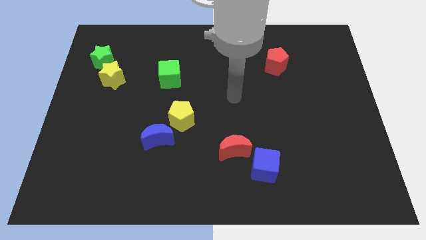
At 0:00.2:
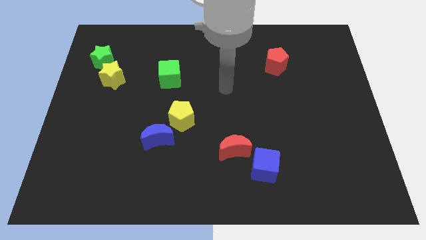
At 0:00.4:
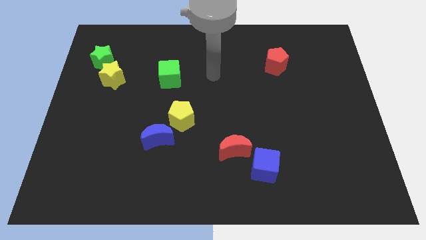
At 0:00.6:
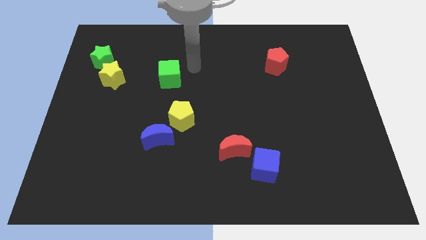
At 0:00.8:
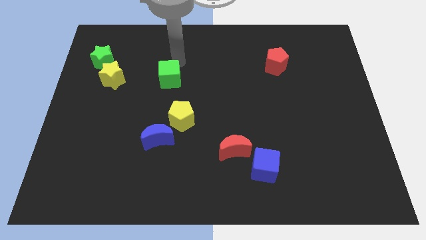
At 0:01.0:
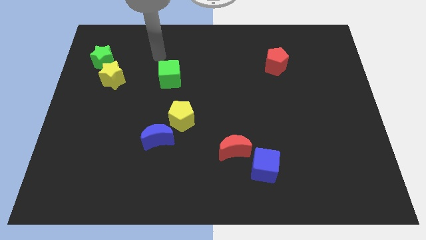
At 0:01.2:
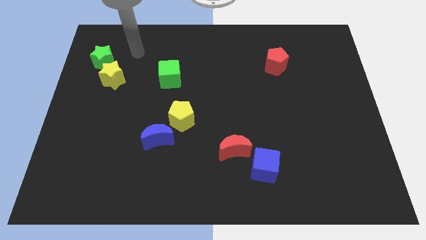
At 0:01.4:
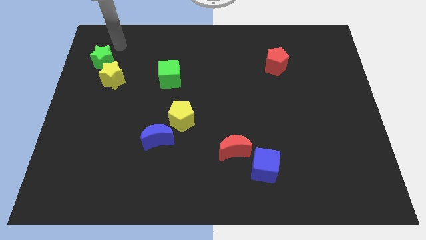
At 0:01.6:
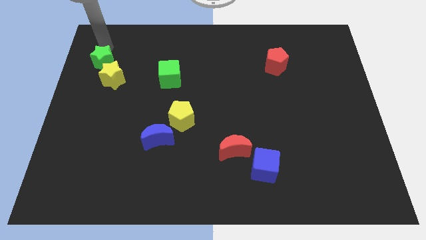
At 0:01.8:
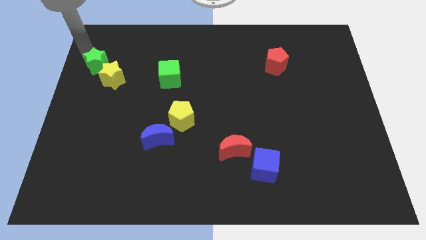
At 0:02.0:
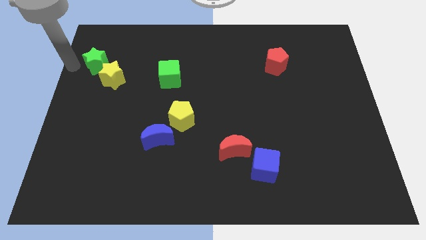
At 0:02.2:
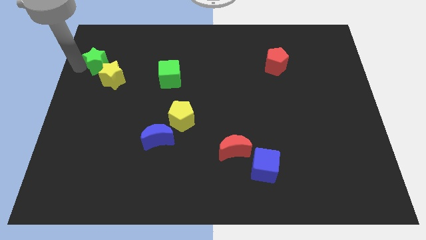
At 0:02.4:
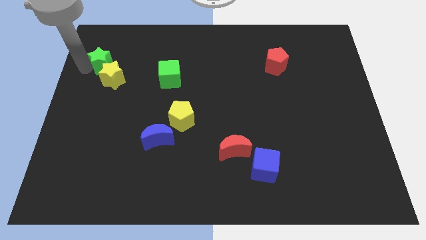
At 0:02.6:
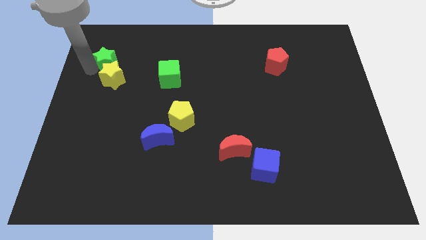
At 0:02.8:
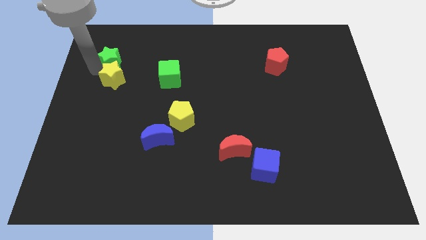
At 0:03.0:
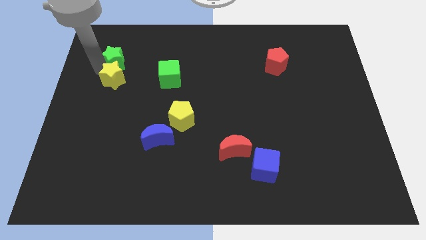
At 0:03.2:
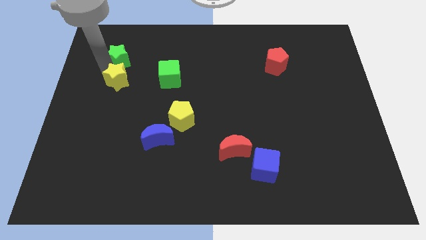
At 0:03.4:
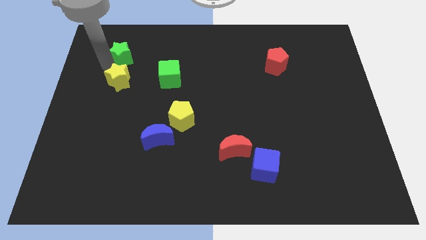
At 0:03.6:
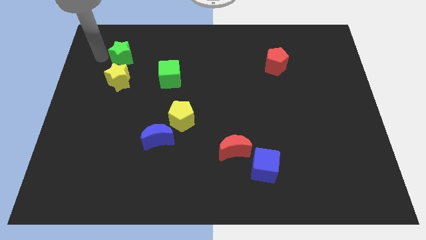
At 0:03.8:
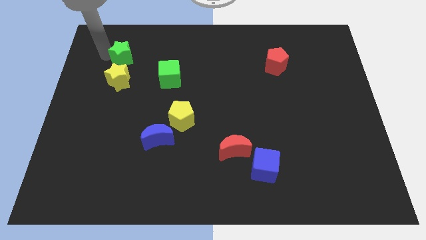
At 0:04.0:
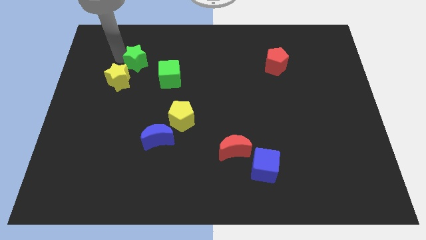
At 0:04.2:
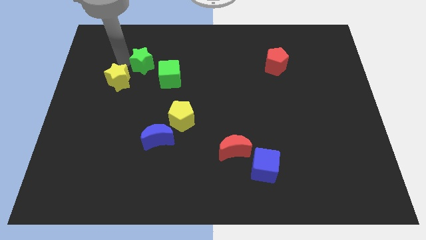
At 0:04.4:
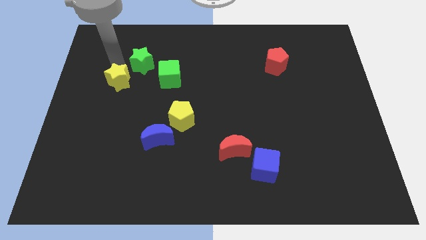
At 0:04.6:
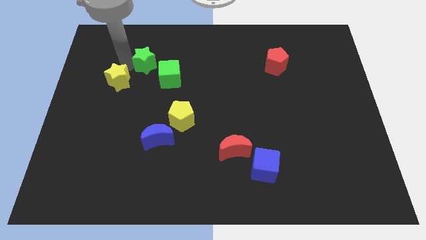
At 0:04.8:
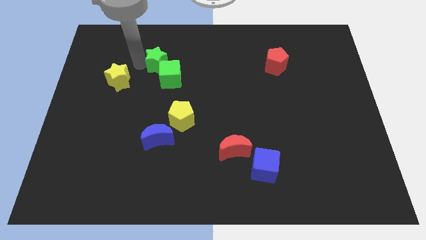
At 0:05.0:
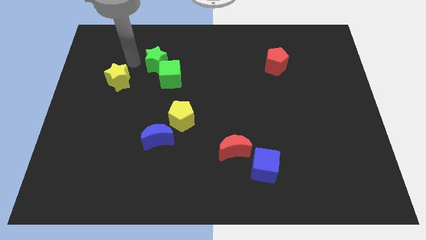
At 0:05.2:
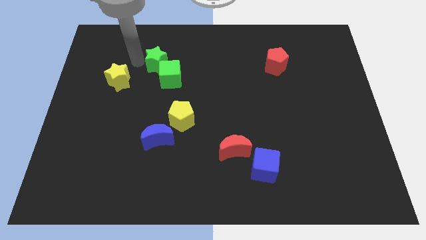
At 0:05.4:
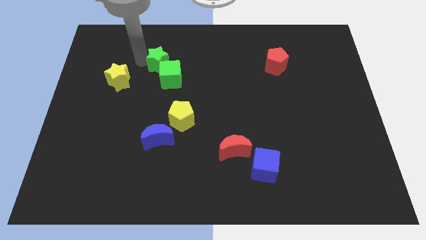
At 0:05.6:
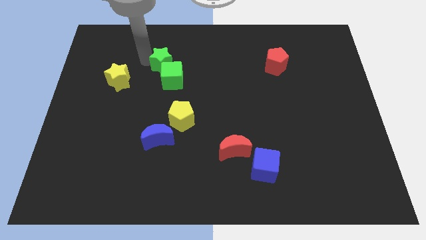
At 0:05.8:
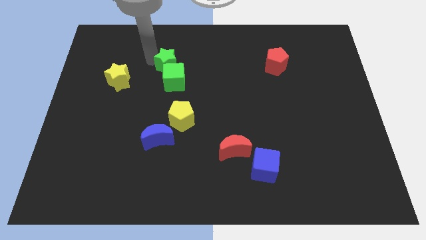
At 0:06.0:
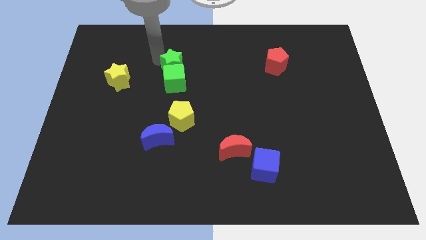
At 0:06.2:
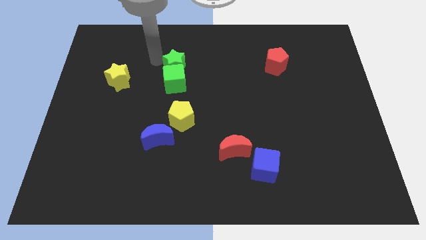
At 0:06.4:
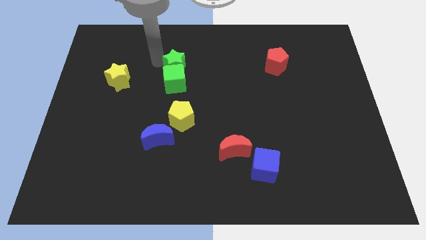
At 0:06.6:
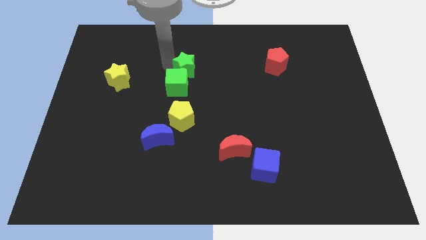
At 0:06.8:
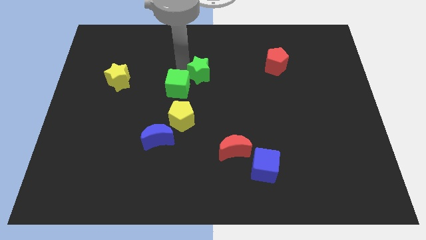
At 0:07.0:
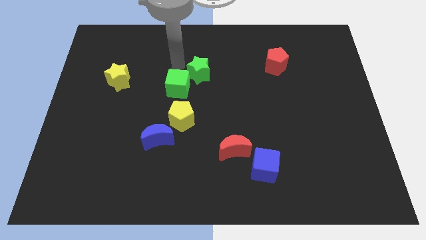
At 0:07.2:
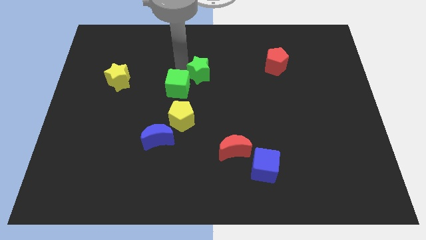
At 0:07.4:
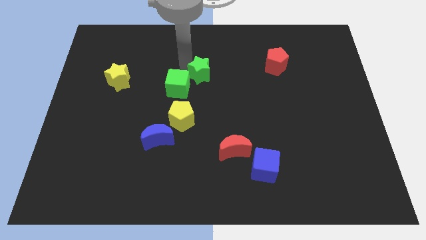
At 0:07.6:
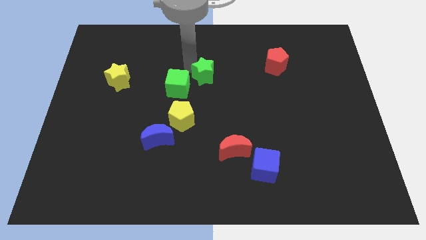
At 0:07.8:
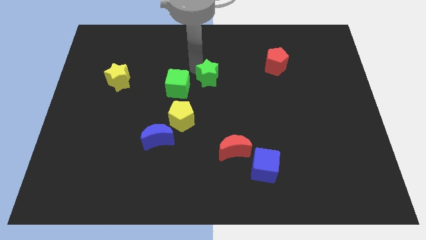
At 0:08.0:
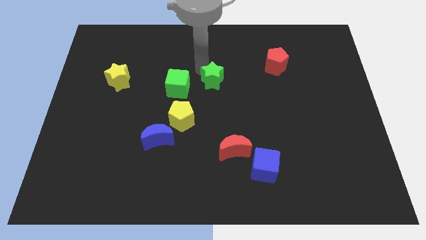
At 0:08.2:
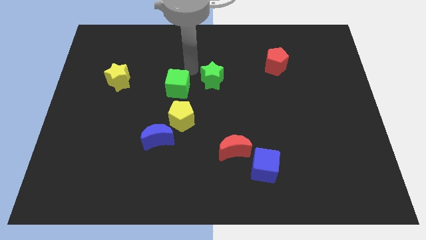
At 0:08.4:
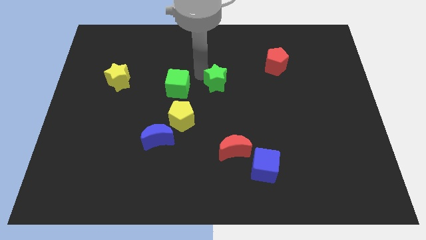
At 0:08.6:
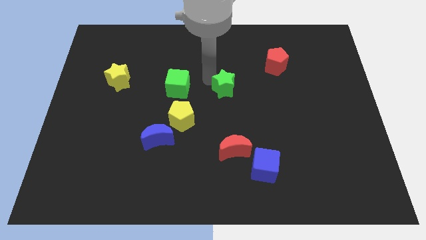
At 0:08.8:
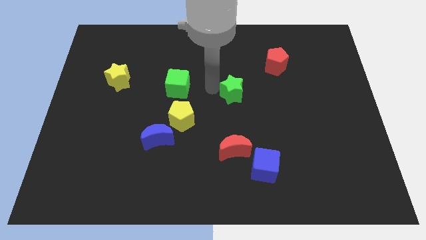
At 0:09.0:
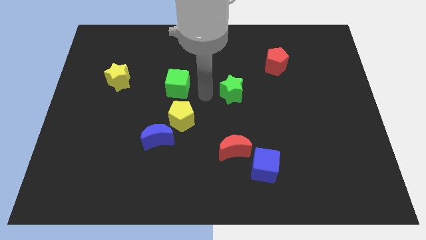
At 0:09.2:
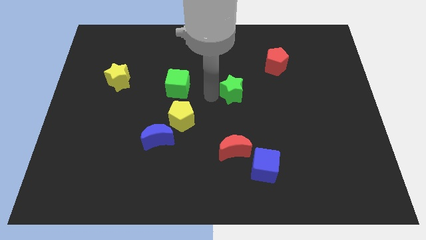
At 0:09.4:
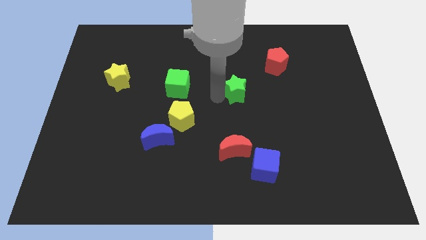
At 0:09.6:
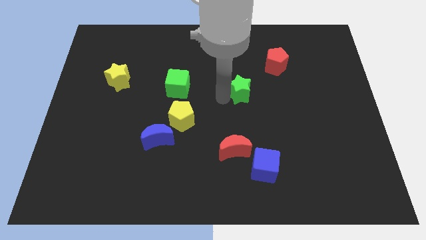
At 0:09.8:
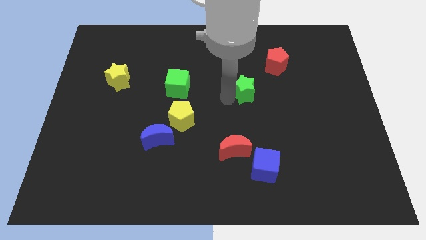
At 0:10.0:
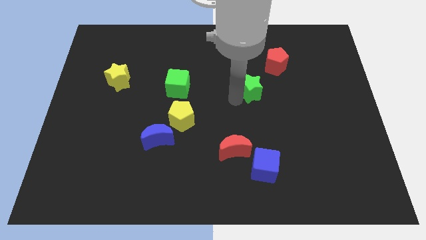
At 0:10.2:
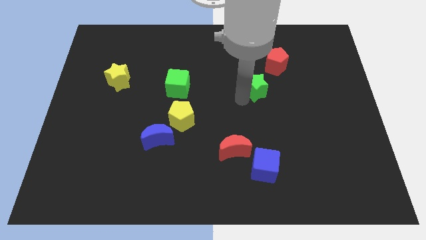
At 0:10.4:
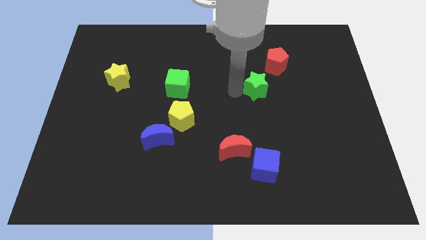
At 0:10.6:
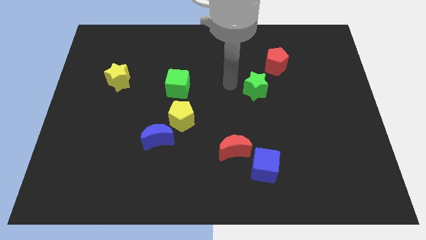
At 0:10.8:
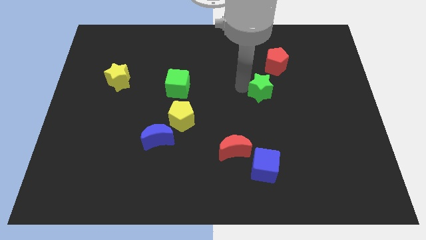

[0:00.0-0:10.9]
push the green star to the bottom side of the red pentagon

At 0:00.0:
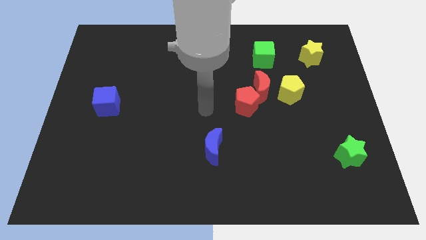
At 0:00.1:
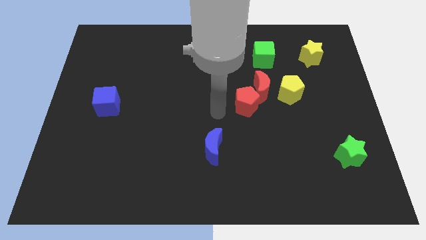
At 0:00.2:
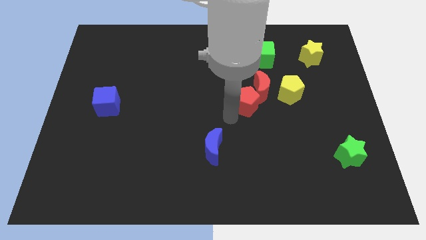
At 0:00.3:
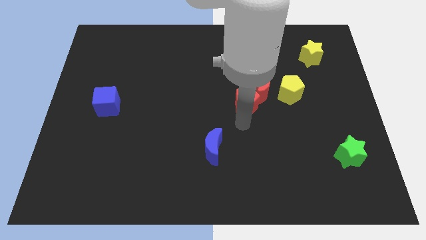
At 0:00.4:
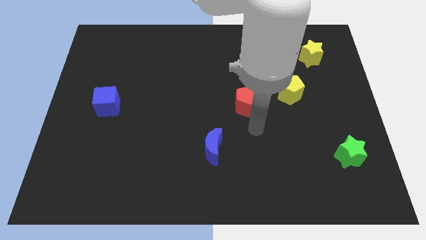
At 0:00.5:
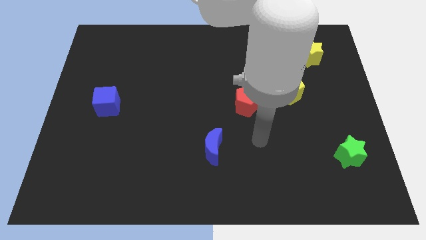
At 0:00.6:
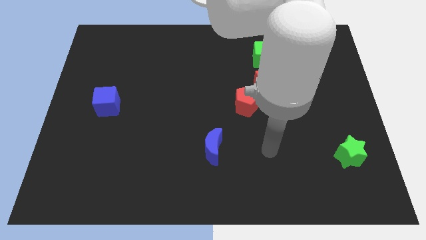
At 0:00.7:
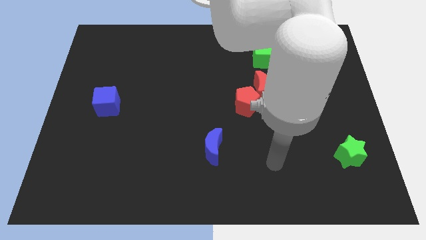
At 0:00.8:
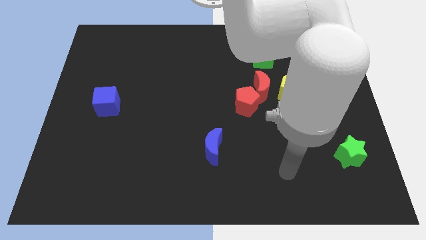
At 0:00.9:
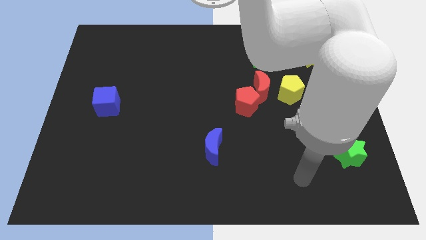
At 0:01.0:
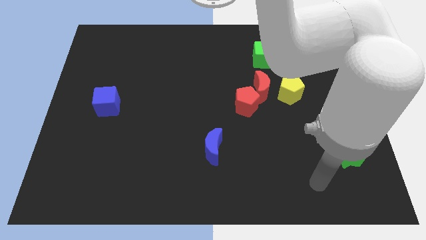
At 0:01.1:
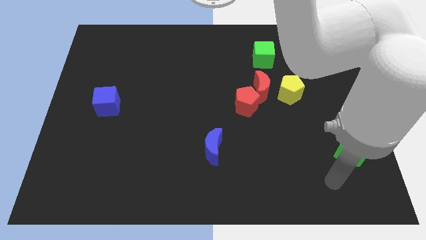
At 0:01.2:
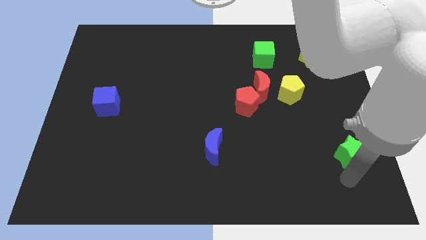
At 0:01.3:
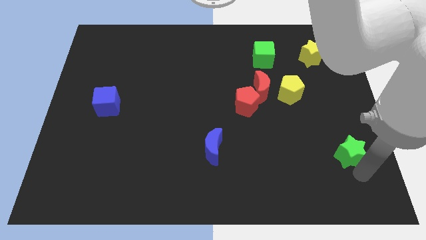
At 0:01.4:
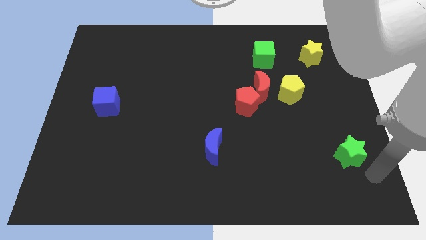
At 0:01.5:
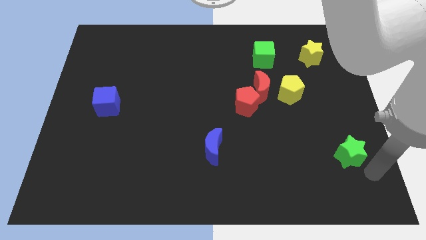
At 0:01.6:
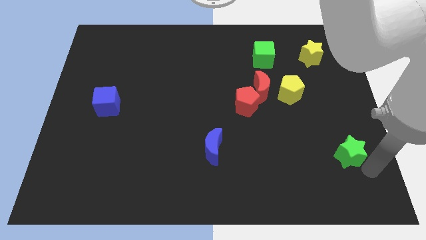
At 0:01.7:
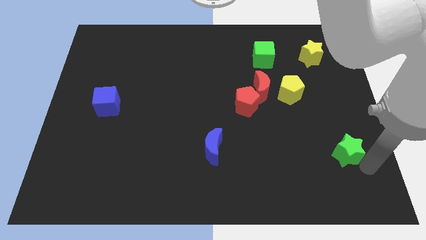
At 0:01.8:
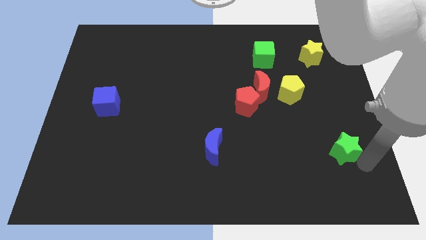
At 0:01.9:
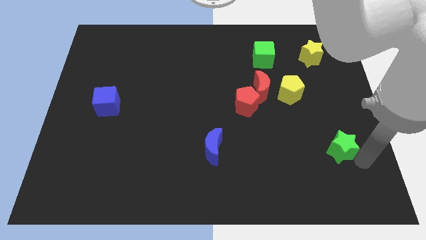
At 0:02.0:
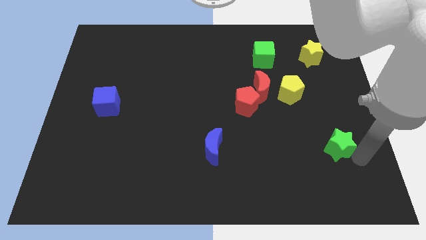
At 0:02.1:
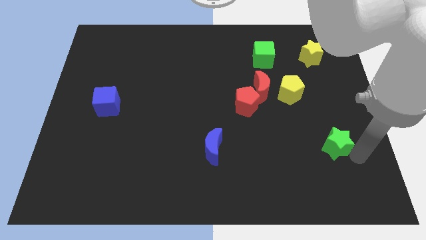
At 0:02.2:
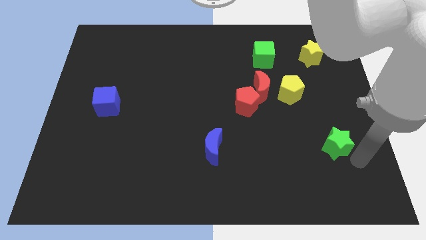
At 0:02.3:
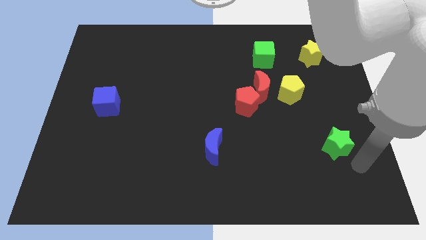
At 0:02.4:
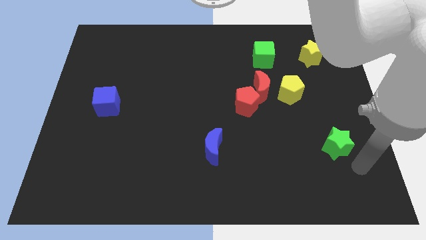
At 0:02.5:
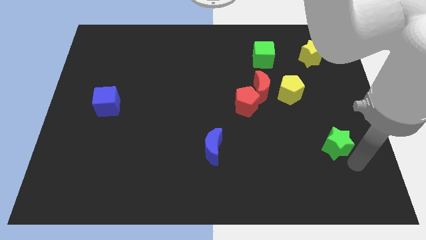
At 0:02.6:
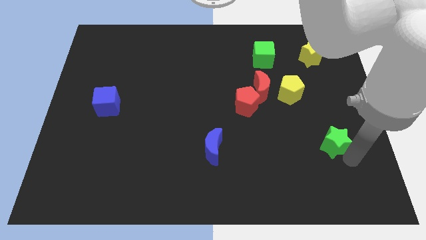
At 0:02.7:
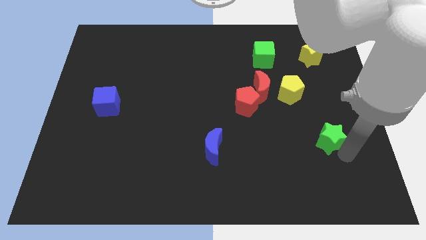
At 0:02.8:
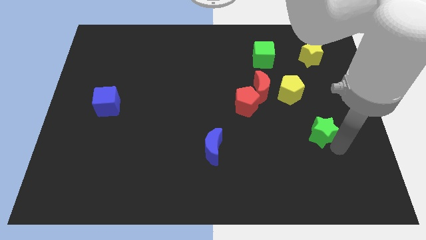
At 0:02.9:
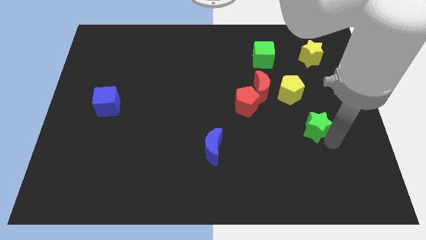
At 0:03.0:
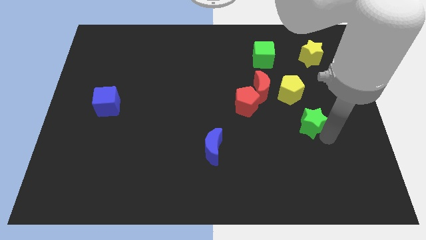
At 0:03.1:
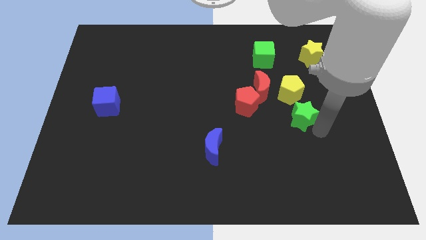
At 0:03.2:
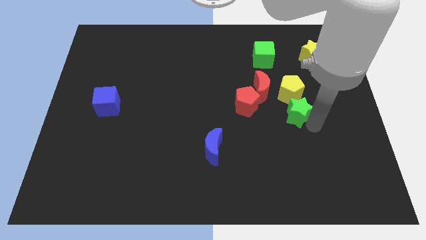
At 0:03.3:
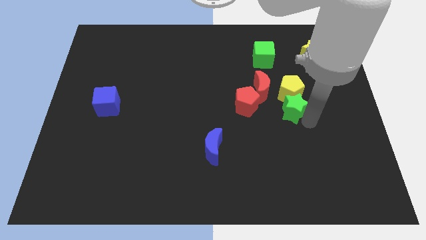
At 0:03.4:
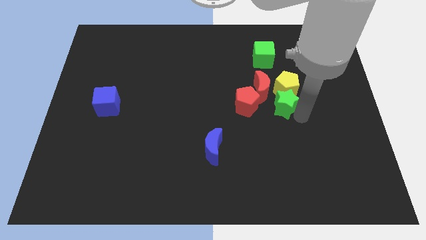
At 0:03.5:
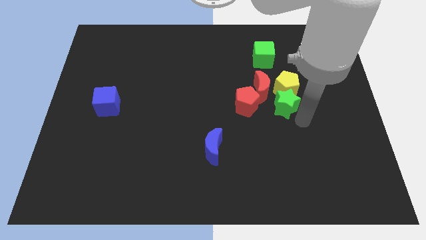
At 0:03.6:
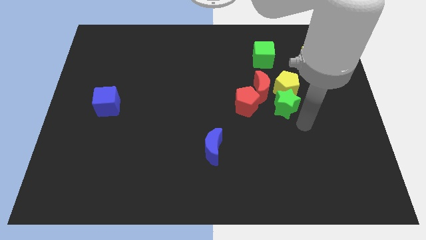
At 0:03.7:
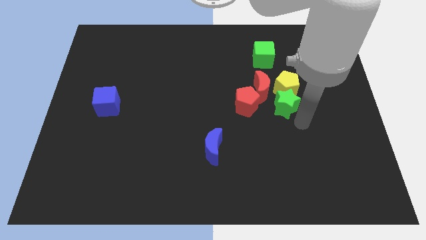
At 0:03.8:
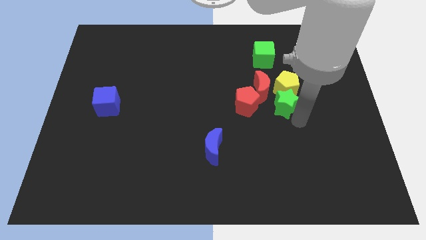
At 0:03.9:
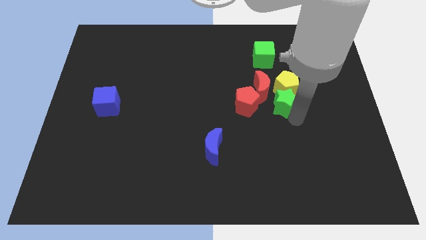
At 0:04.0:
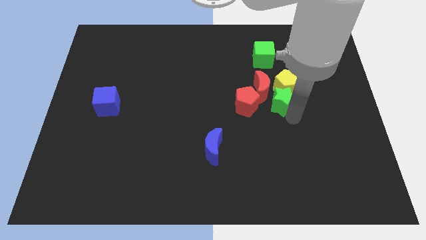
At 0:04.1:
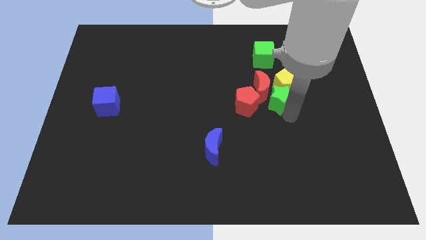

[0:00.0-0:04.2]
put the green star to the bottom side of the green cube
